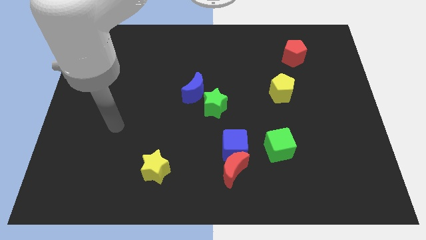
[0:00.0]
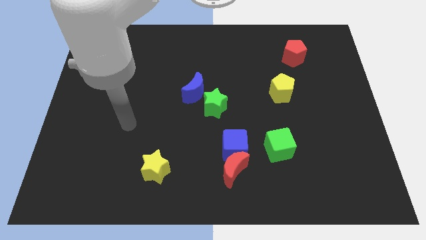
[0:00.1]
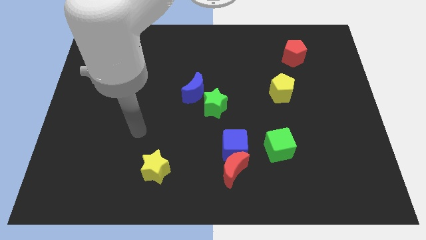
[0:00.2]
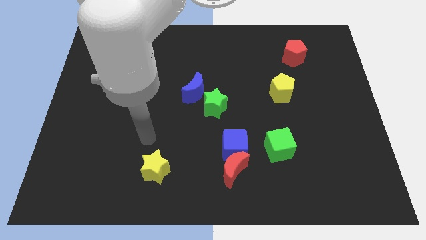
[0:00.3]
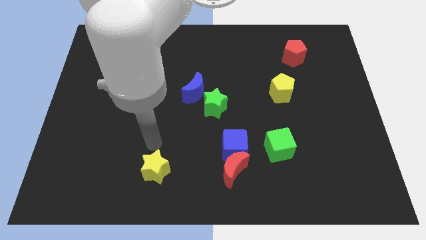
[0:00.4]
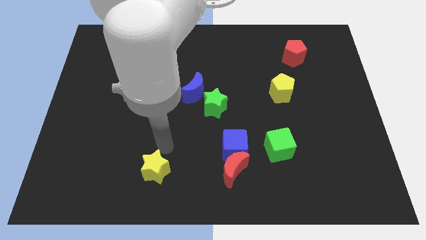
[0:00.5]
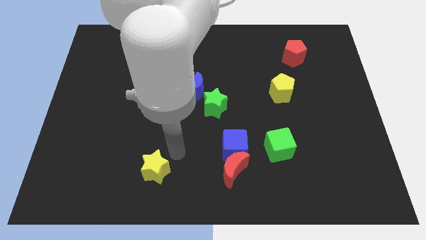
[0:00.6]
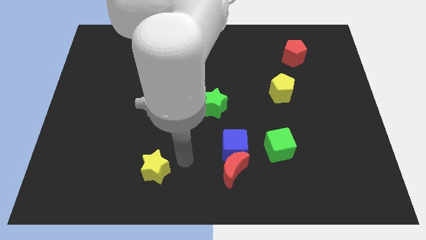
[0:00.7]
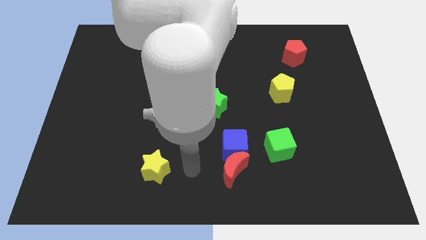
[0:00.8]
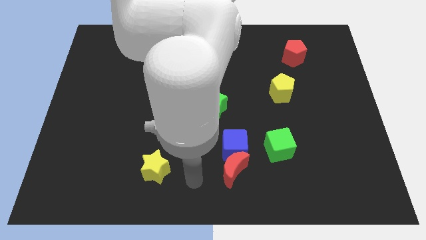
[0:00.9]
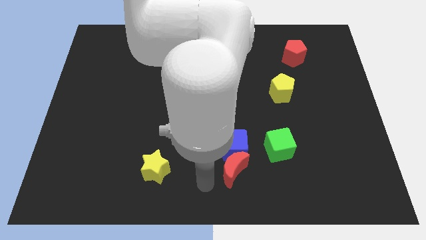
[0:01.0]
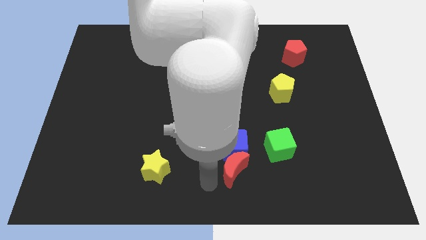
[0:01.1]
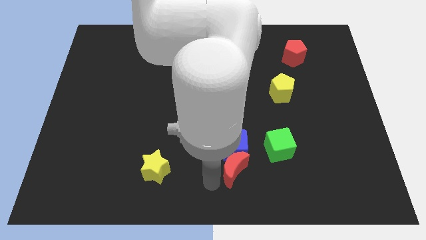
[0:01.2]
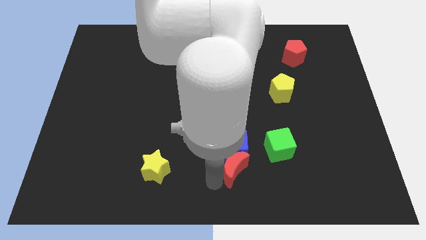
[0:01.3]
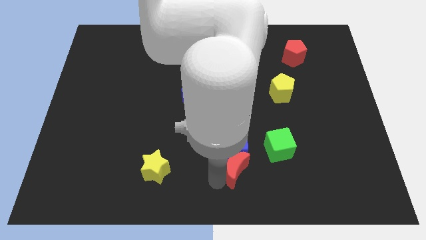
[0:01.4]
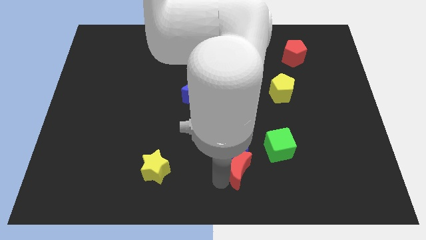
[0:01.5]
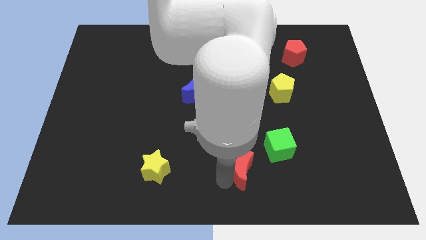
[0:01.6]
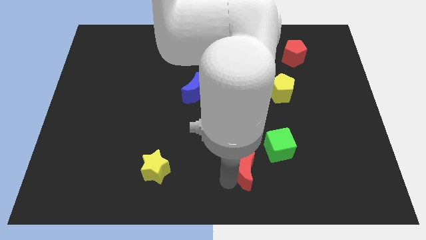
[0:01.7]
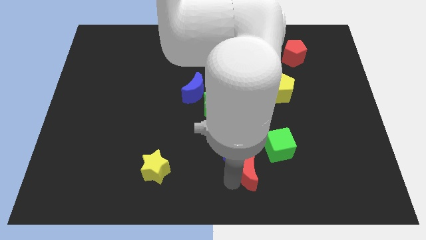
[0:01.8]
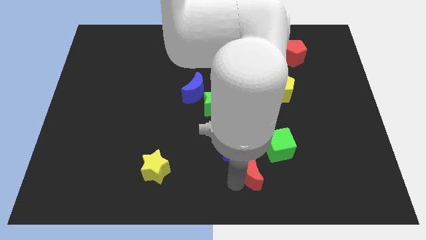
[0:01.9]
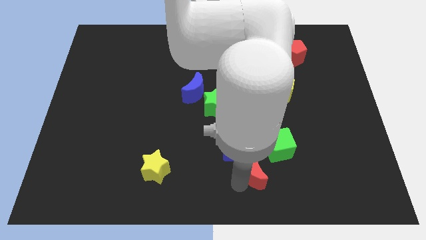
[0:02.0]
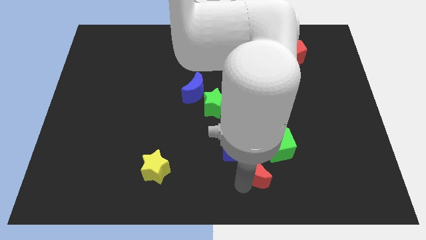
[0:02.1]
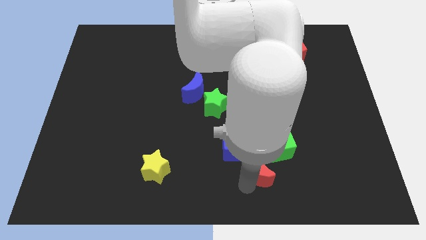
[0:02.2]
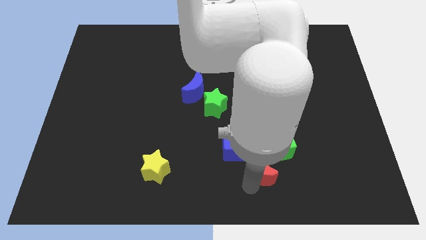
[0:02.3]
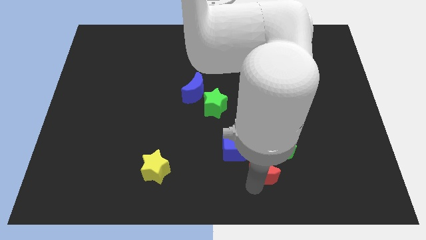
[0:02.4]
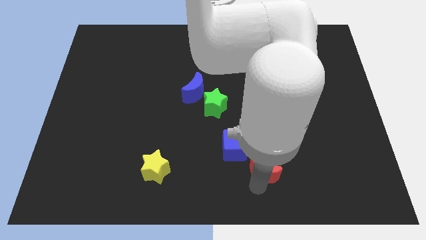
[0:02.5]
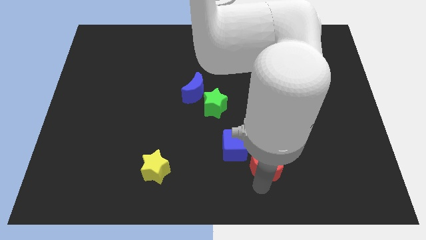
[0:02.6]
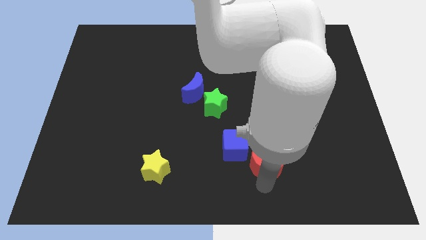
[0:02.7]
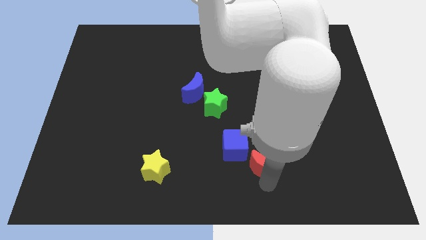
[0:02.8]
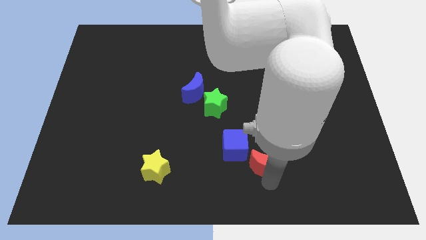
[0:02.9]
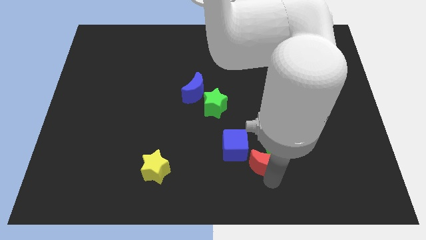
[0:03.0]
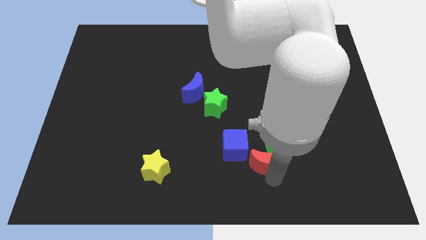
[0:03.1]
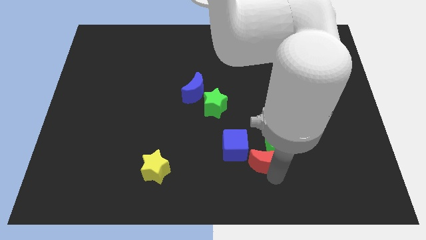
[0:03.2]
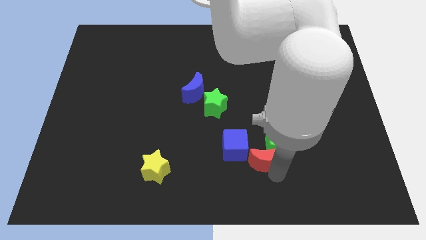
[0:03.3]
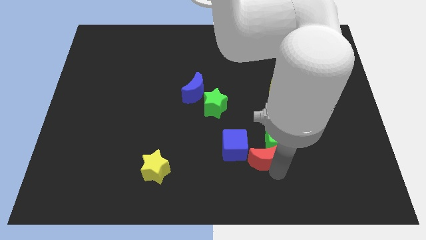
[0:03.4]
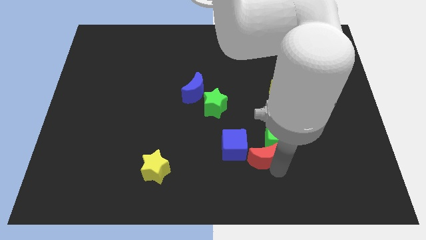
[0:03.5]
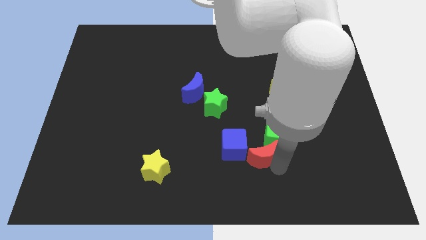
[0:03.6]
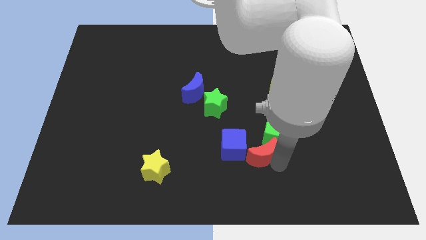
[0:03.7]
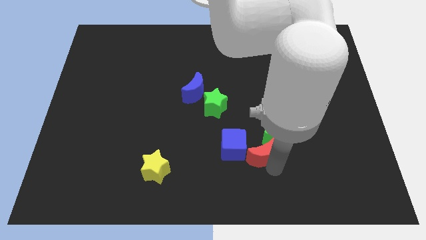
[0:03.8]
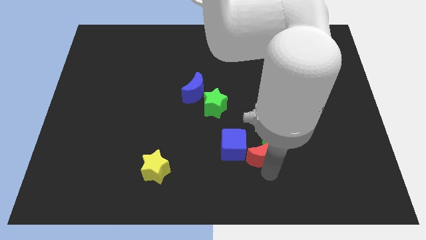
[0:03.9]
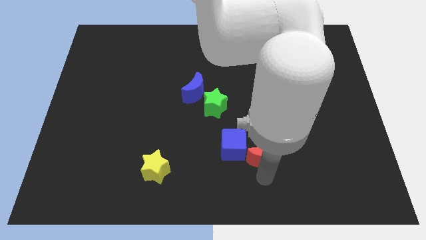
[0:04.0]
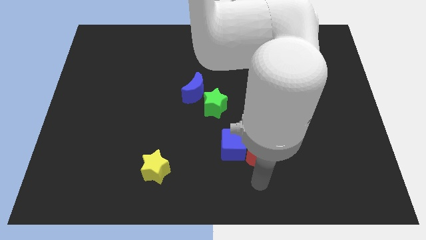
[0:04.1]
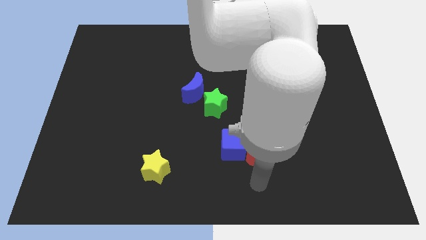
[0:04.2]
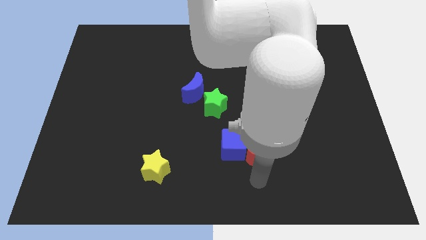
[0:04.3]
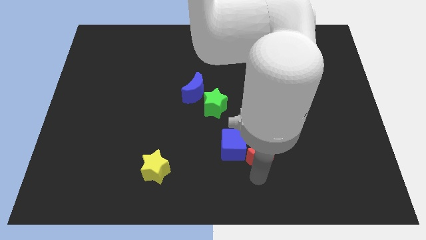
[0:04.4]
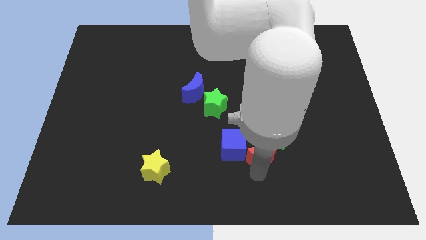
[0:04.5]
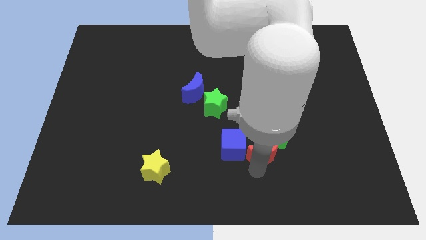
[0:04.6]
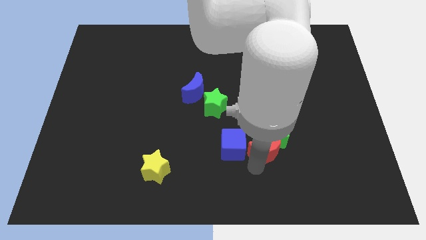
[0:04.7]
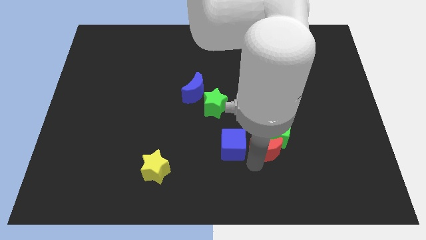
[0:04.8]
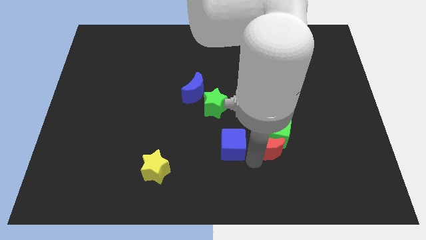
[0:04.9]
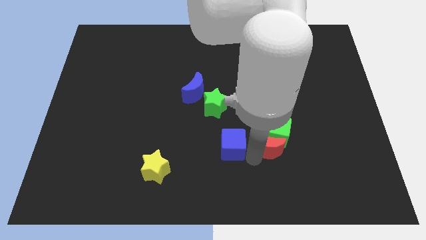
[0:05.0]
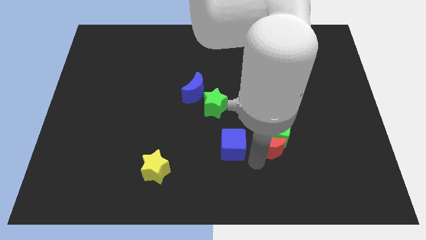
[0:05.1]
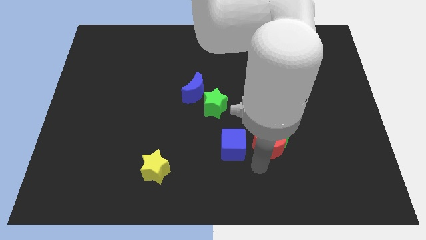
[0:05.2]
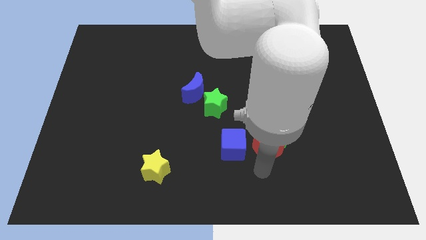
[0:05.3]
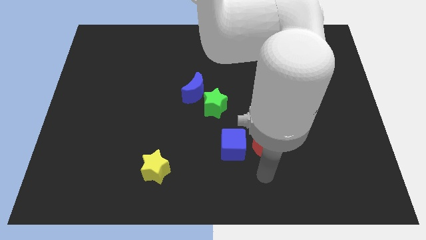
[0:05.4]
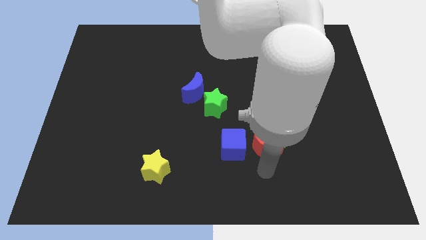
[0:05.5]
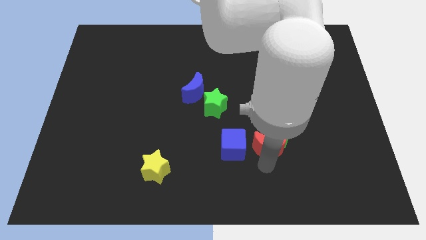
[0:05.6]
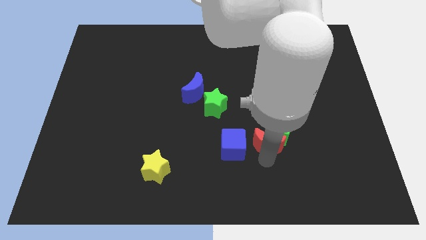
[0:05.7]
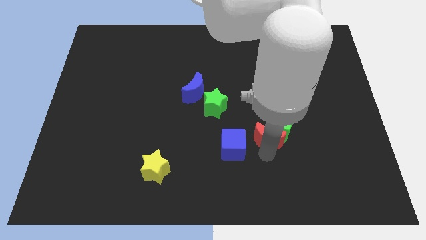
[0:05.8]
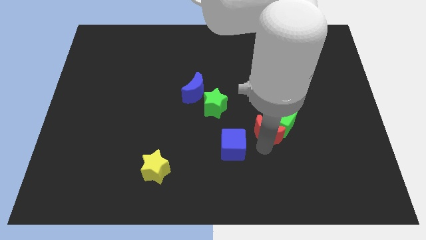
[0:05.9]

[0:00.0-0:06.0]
move the red moon to the bottom of the yellow pentagon

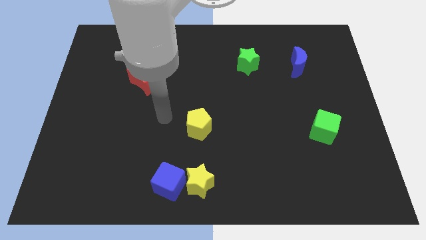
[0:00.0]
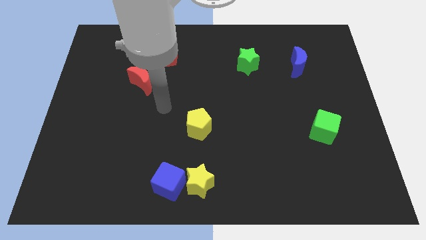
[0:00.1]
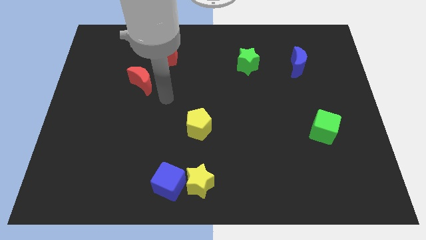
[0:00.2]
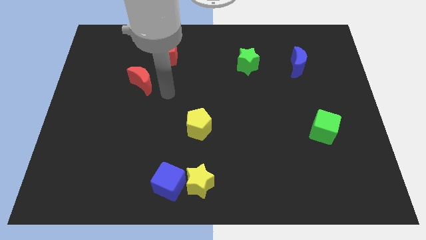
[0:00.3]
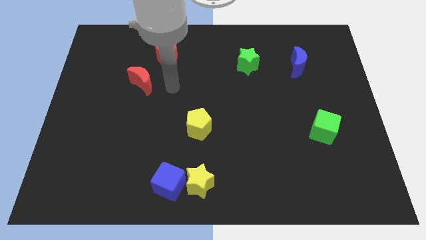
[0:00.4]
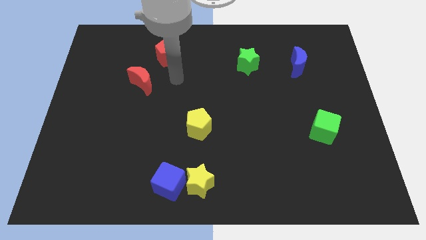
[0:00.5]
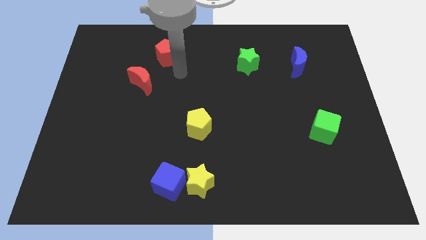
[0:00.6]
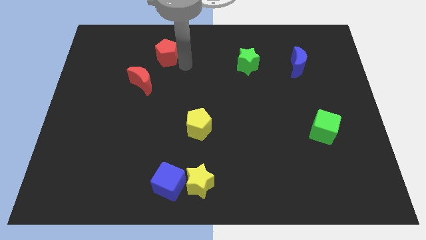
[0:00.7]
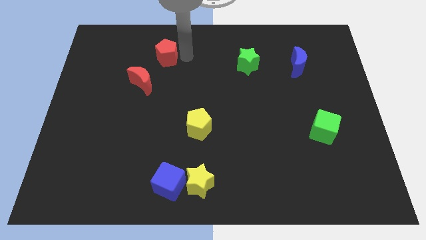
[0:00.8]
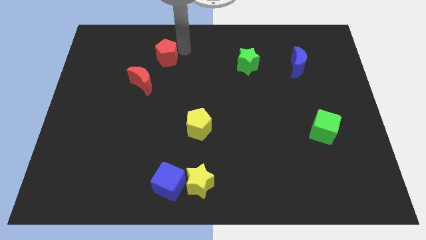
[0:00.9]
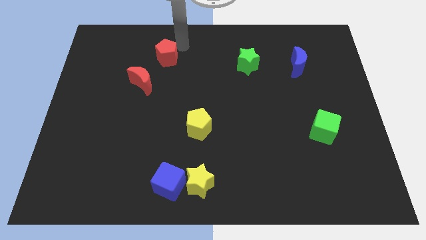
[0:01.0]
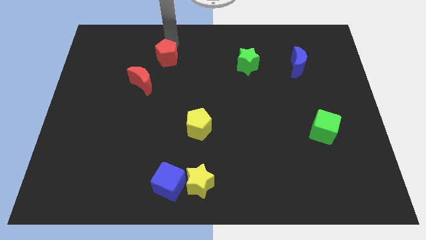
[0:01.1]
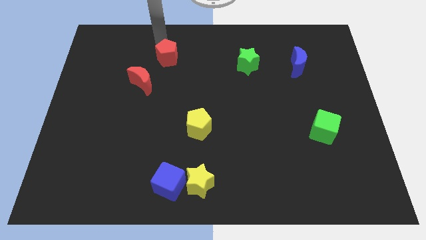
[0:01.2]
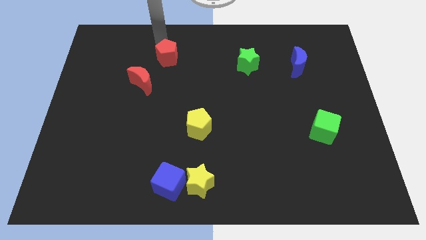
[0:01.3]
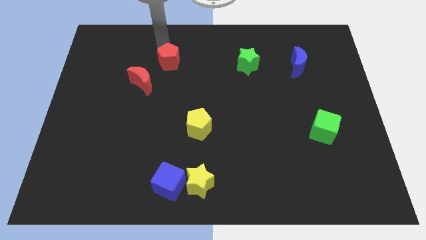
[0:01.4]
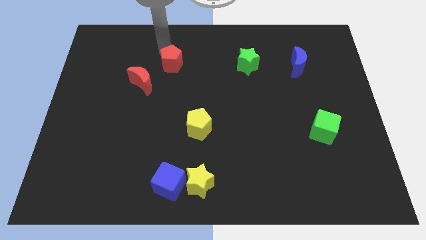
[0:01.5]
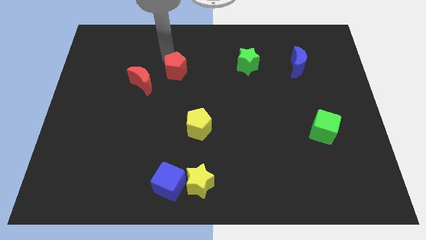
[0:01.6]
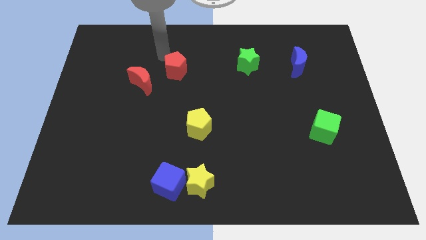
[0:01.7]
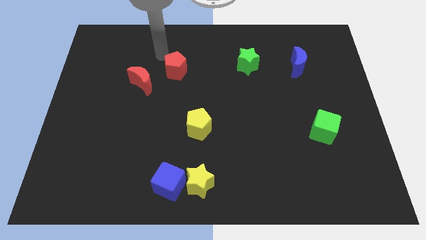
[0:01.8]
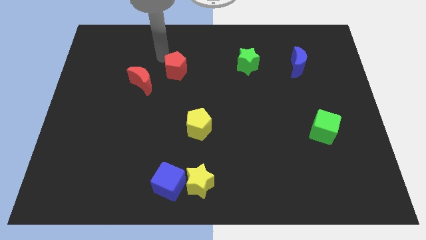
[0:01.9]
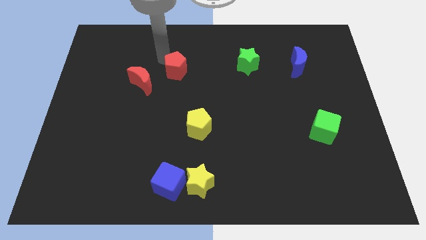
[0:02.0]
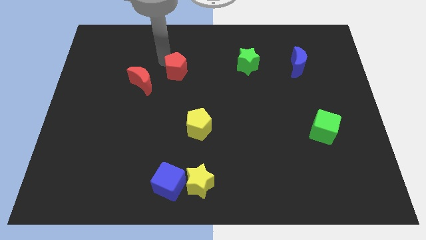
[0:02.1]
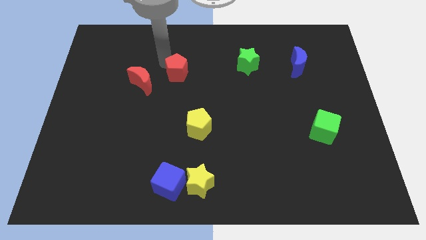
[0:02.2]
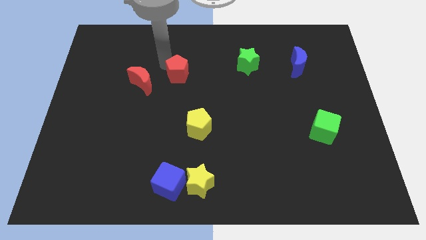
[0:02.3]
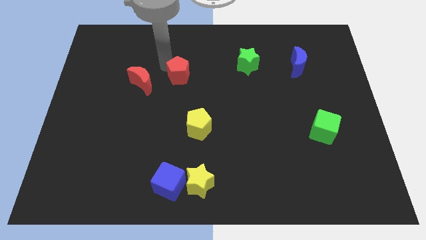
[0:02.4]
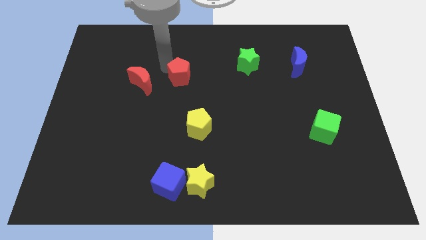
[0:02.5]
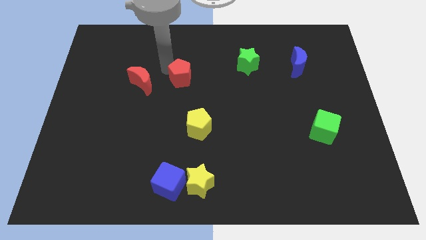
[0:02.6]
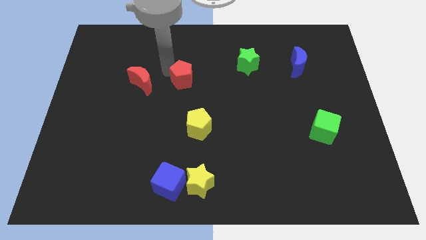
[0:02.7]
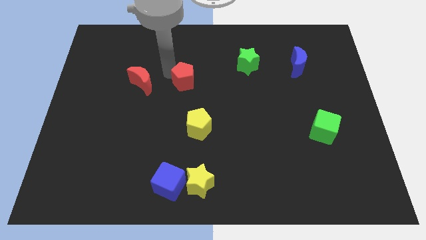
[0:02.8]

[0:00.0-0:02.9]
push the red pentagon above the yellow pentagon
